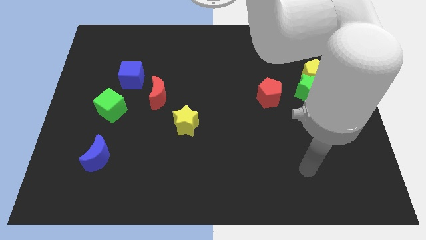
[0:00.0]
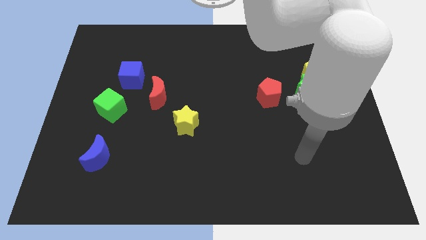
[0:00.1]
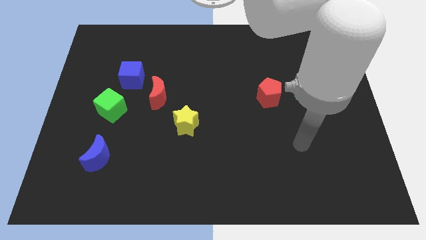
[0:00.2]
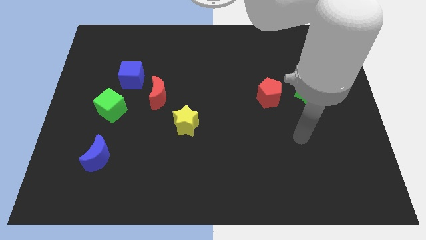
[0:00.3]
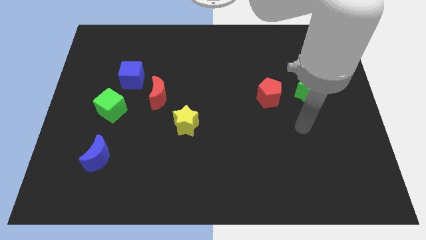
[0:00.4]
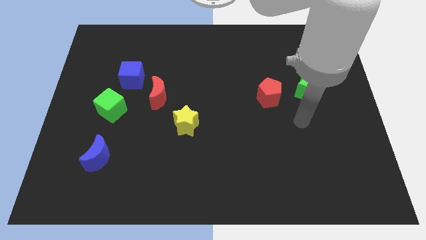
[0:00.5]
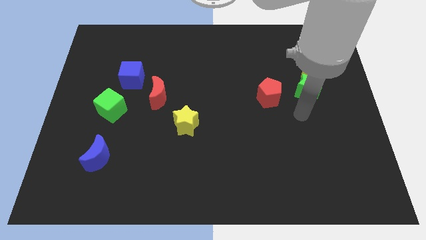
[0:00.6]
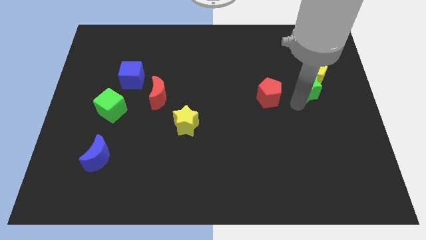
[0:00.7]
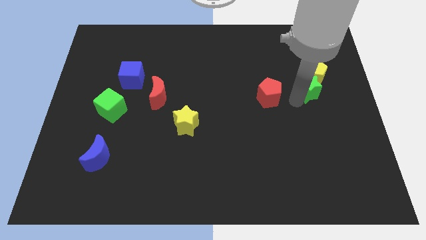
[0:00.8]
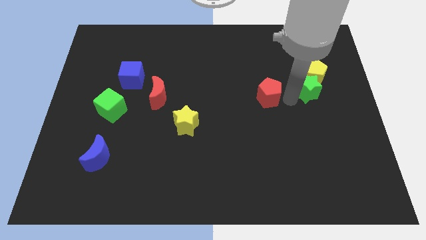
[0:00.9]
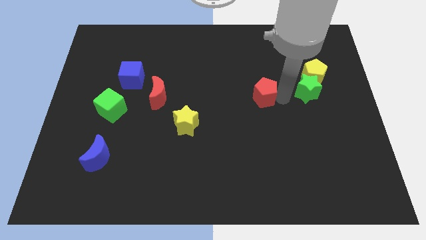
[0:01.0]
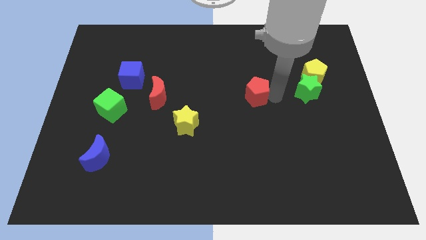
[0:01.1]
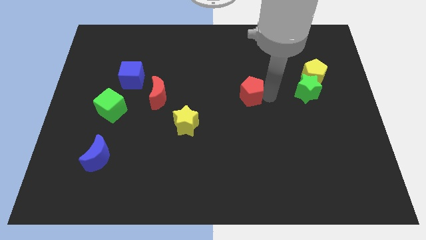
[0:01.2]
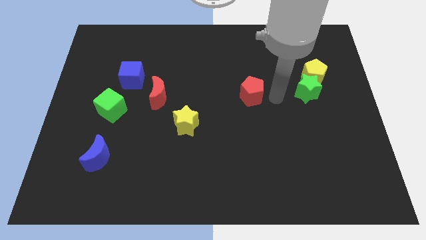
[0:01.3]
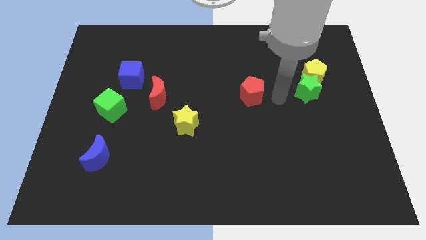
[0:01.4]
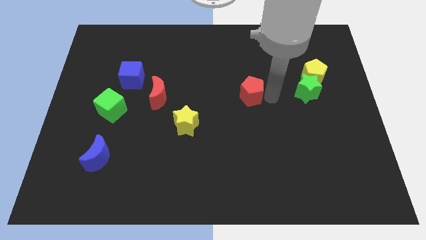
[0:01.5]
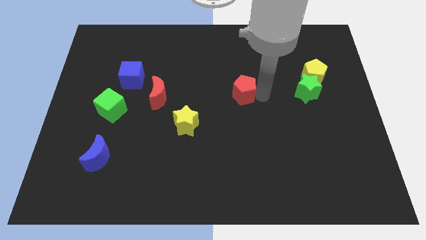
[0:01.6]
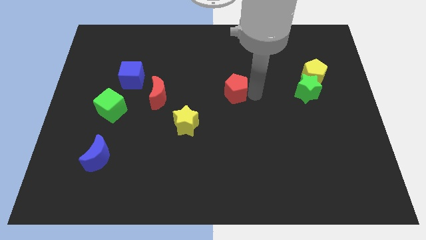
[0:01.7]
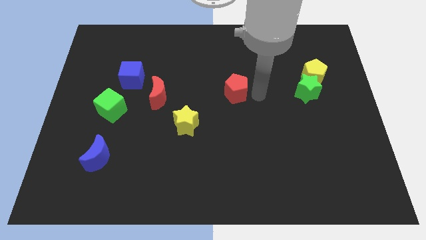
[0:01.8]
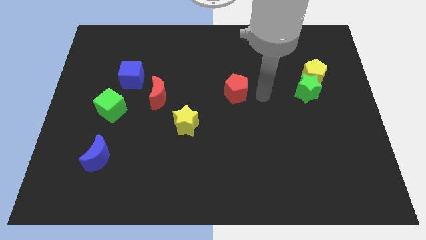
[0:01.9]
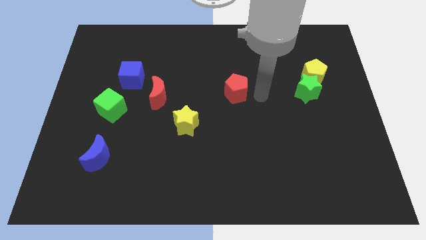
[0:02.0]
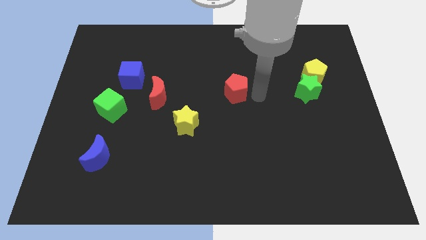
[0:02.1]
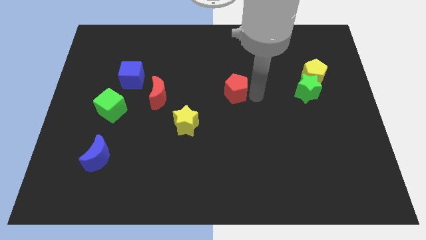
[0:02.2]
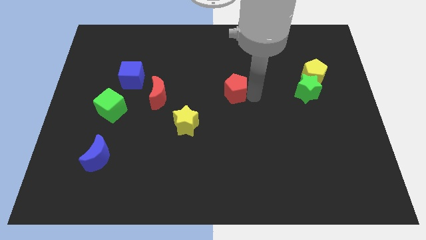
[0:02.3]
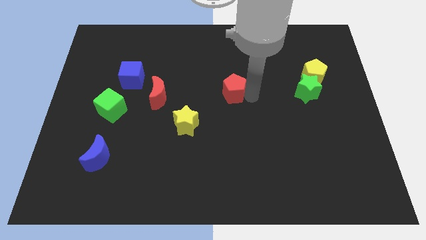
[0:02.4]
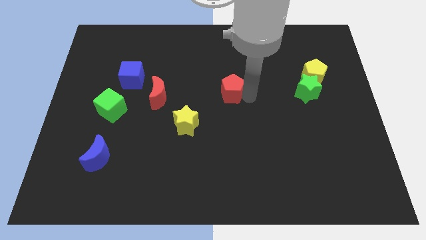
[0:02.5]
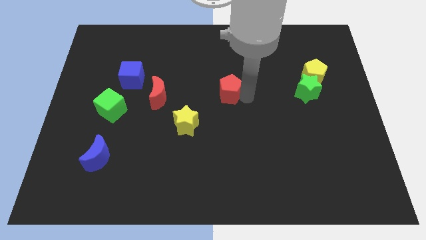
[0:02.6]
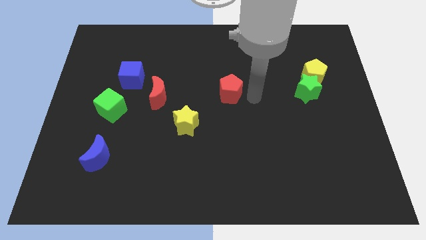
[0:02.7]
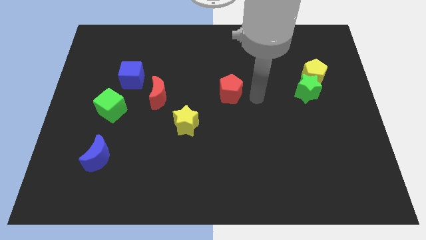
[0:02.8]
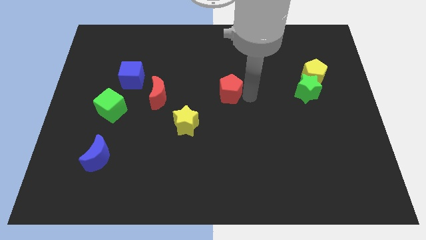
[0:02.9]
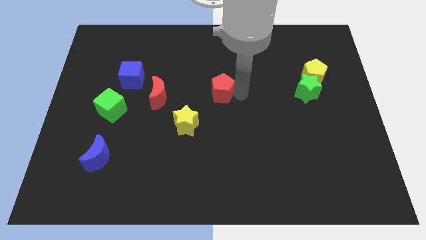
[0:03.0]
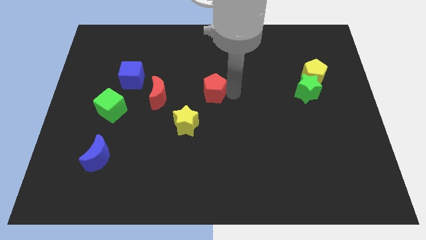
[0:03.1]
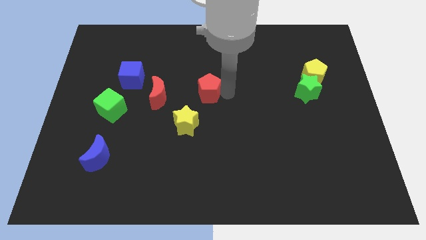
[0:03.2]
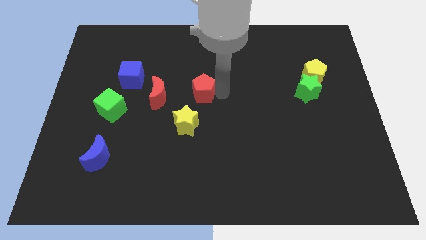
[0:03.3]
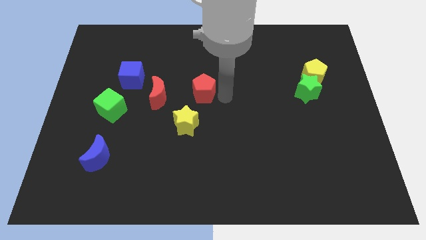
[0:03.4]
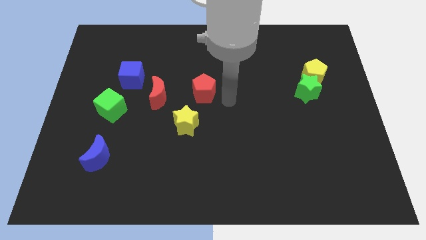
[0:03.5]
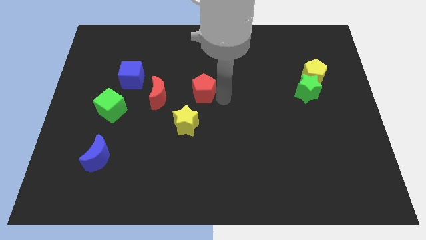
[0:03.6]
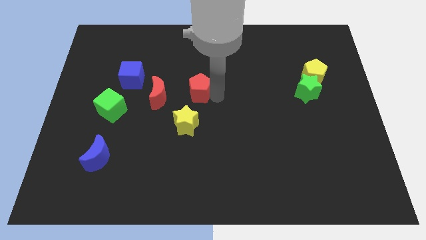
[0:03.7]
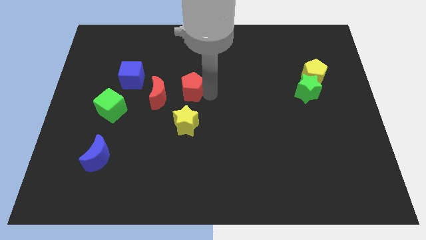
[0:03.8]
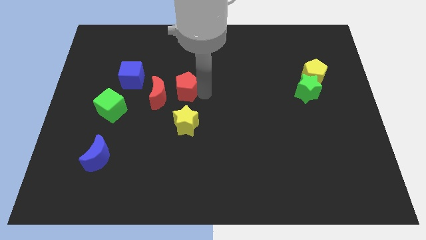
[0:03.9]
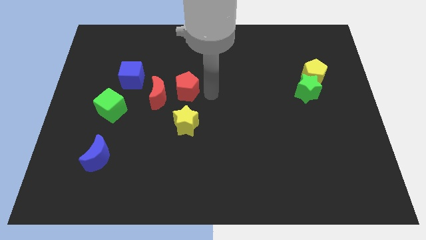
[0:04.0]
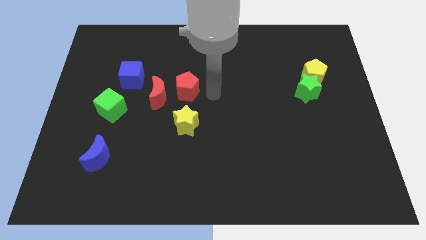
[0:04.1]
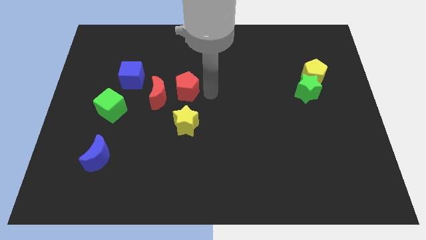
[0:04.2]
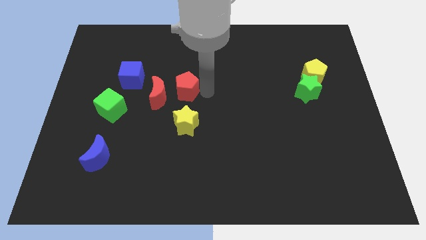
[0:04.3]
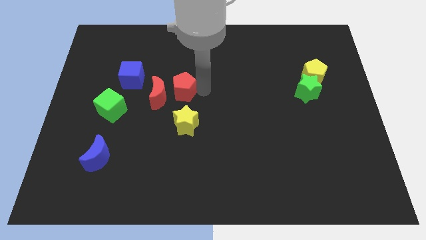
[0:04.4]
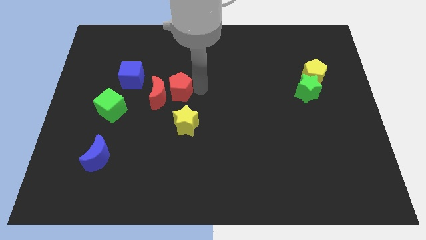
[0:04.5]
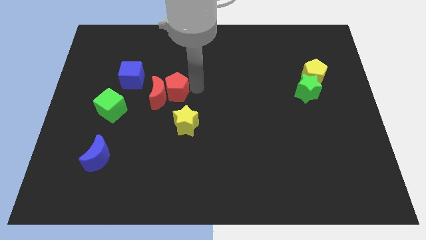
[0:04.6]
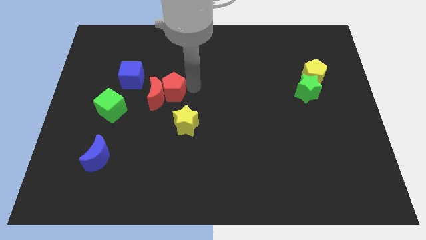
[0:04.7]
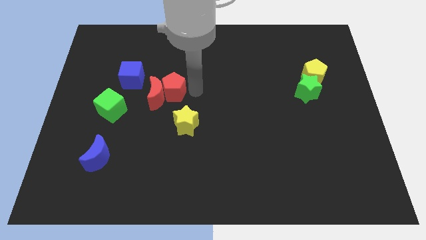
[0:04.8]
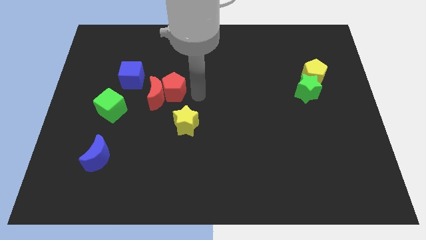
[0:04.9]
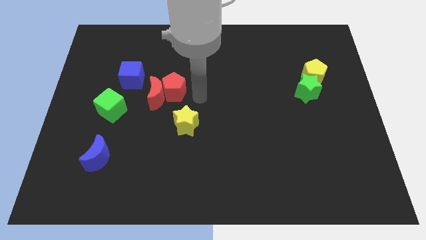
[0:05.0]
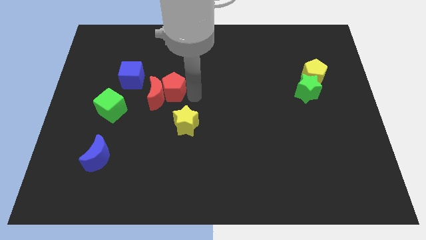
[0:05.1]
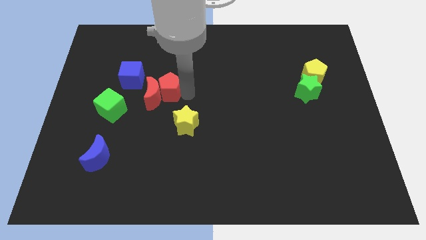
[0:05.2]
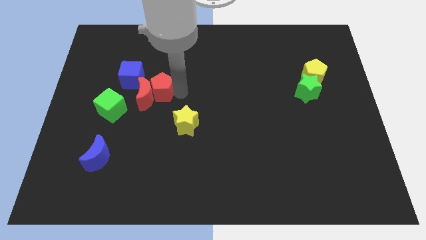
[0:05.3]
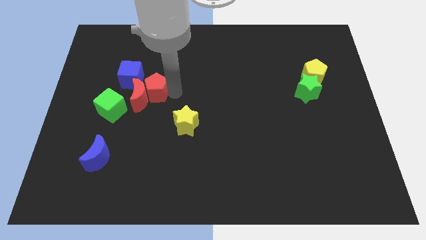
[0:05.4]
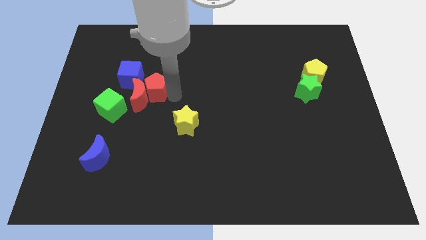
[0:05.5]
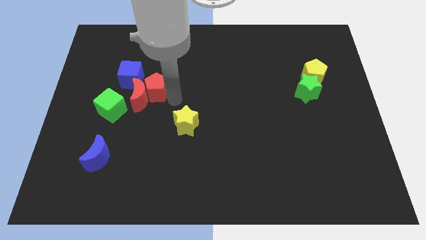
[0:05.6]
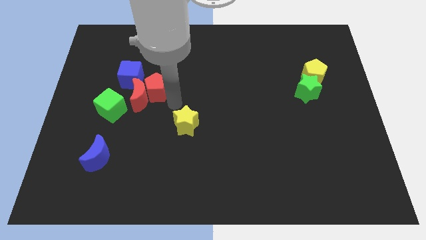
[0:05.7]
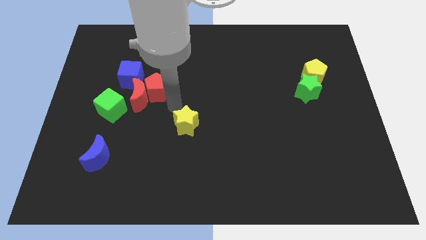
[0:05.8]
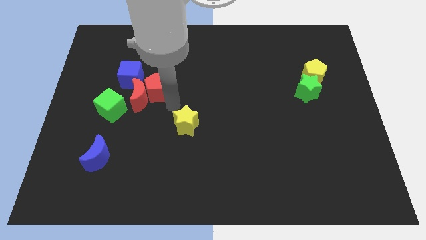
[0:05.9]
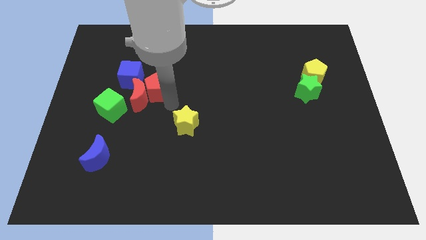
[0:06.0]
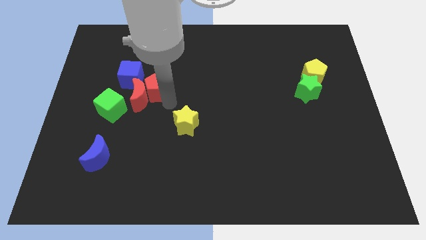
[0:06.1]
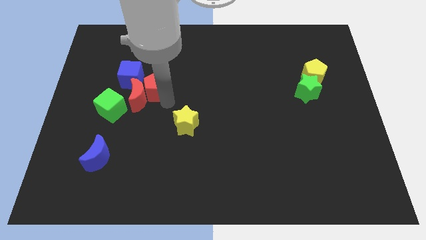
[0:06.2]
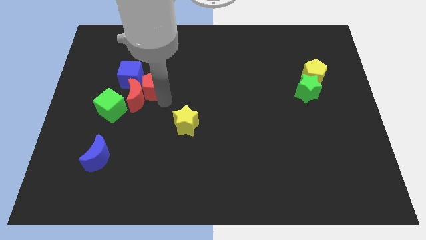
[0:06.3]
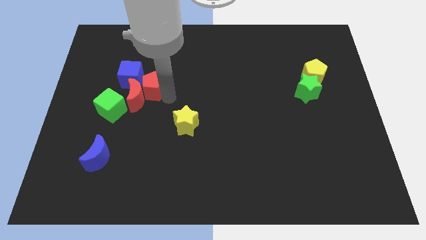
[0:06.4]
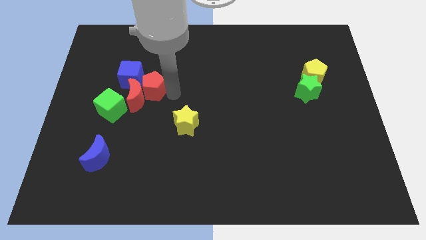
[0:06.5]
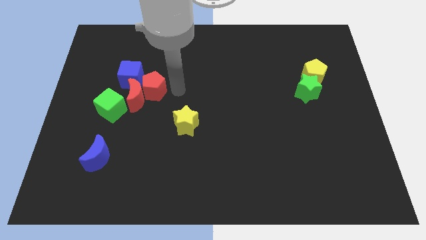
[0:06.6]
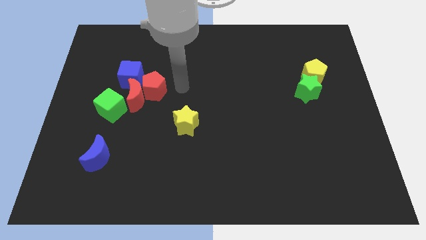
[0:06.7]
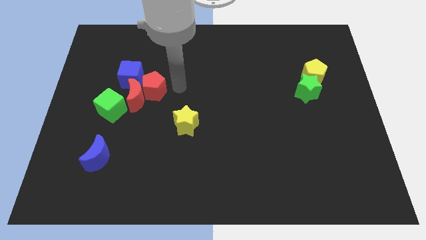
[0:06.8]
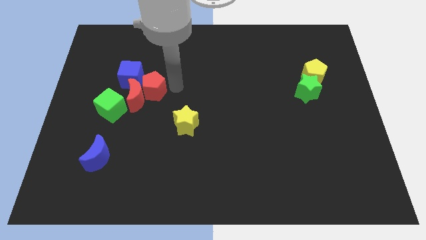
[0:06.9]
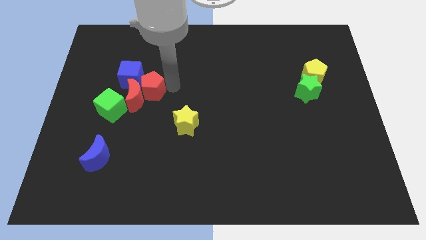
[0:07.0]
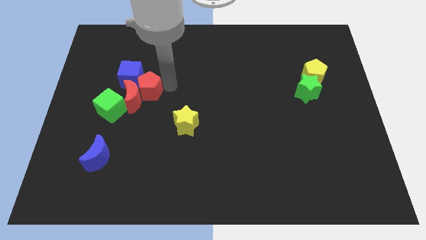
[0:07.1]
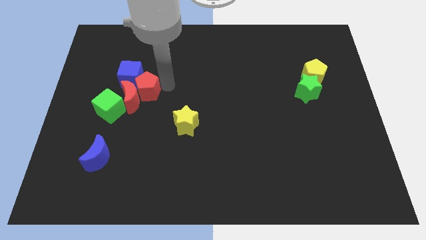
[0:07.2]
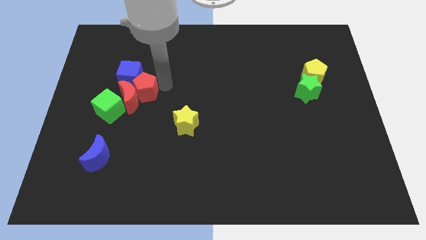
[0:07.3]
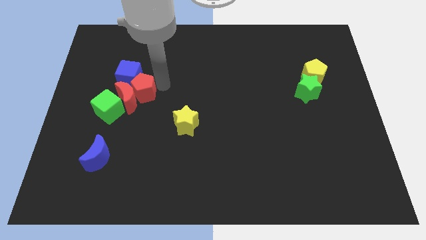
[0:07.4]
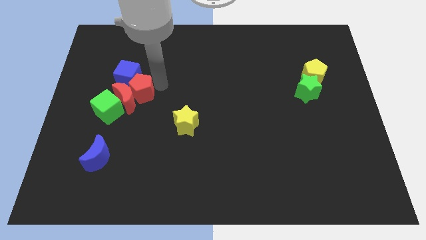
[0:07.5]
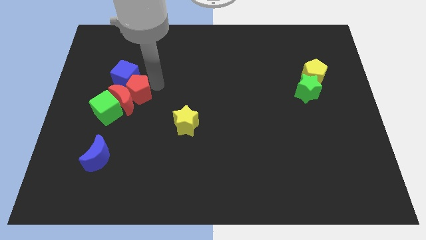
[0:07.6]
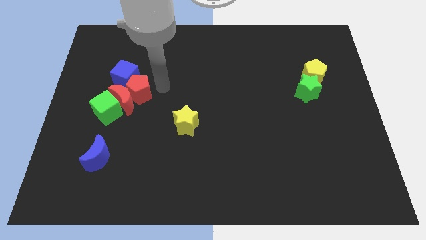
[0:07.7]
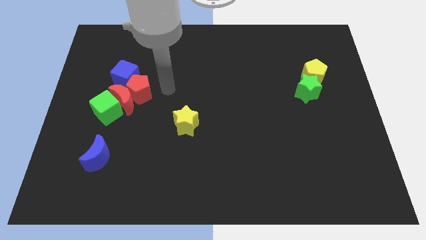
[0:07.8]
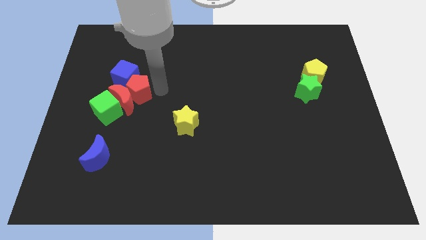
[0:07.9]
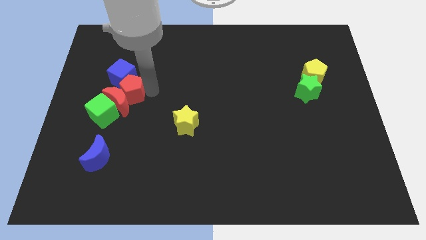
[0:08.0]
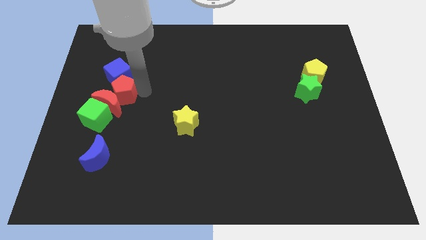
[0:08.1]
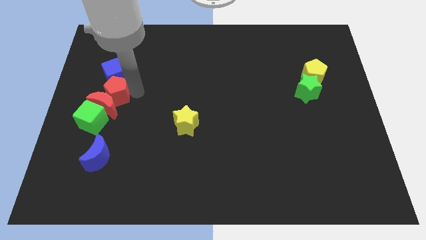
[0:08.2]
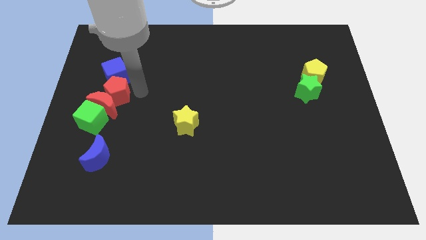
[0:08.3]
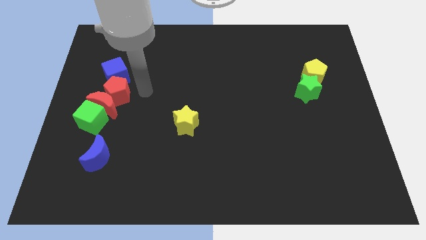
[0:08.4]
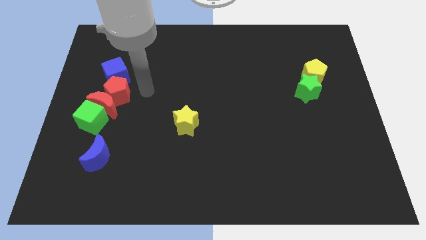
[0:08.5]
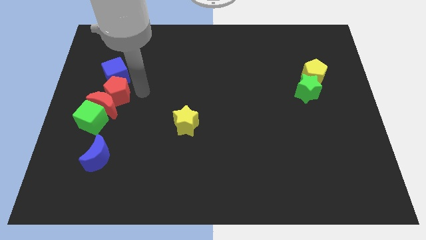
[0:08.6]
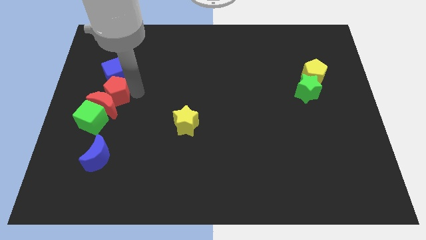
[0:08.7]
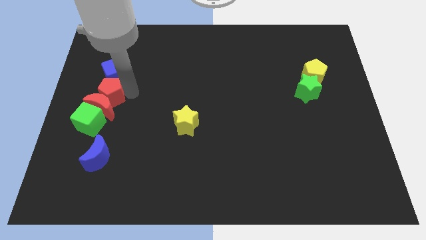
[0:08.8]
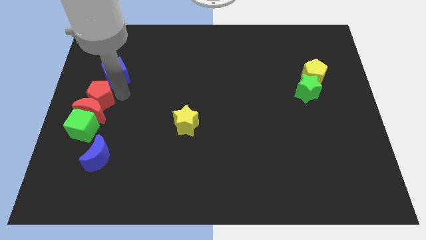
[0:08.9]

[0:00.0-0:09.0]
slide the red pentagon to the center left
